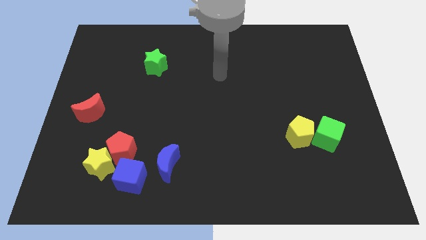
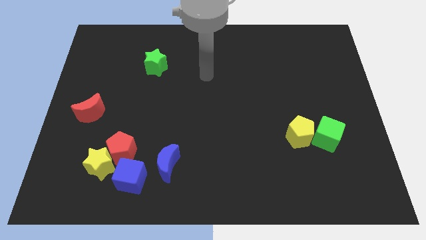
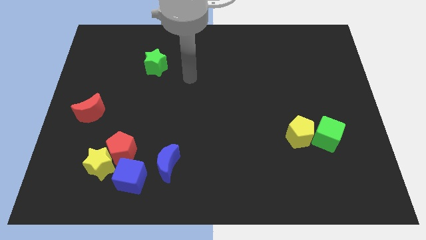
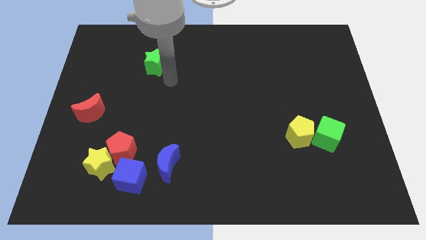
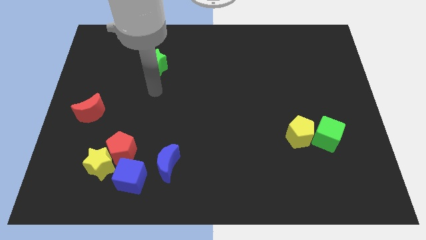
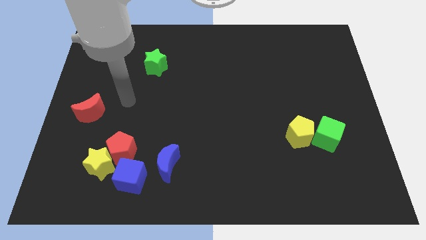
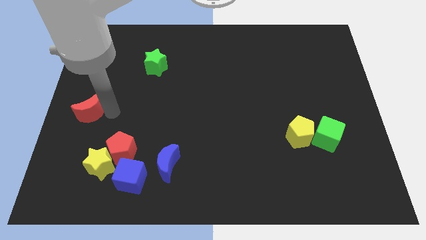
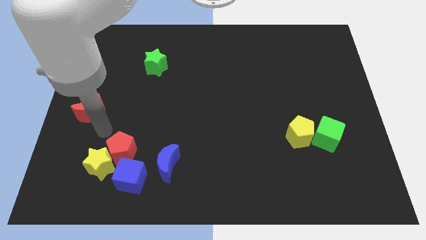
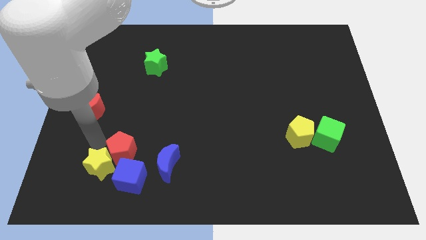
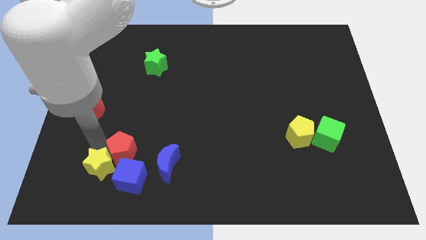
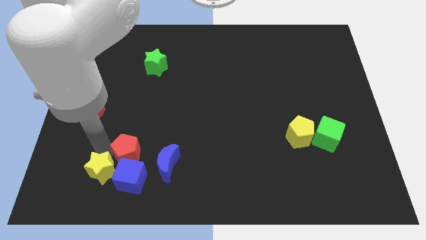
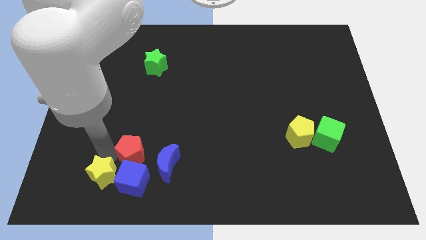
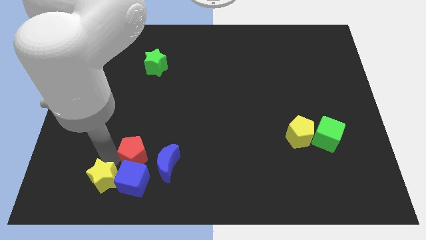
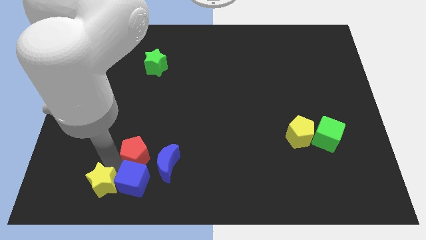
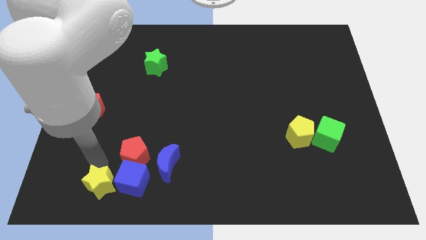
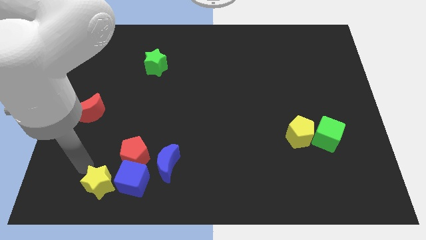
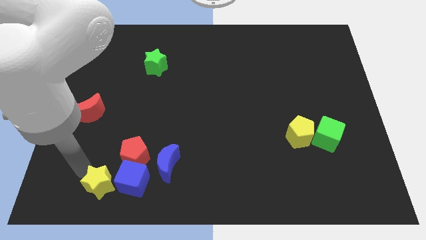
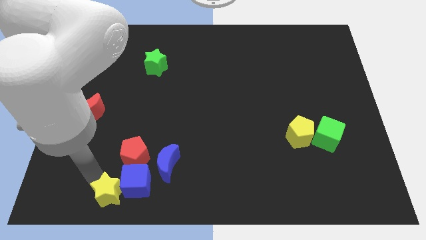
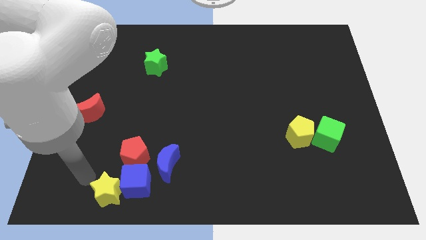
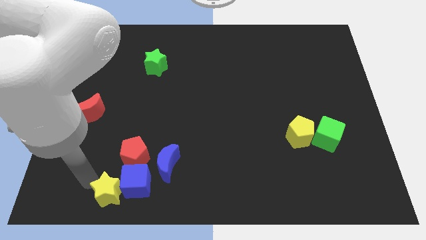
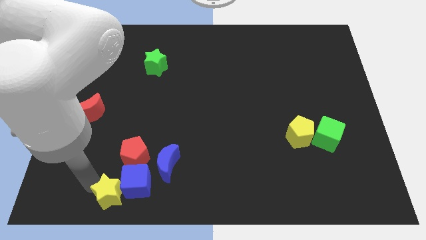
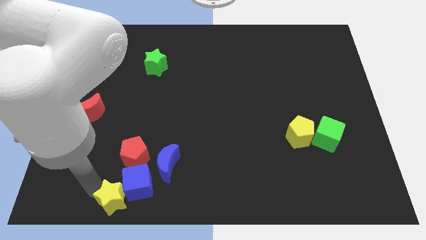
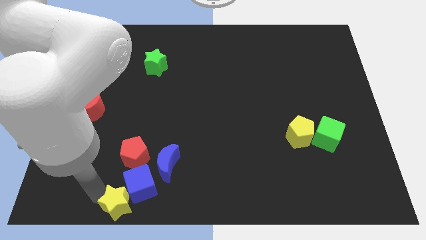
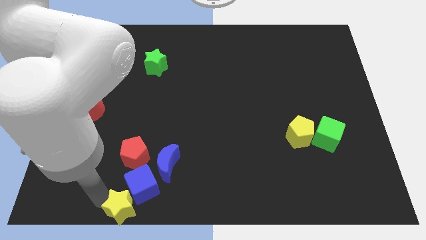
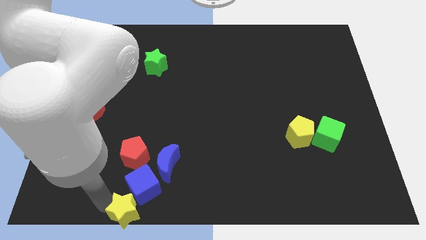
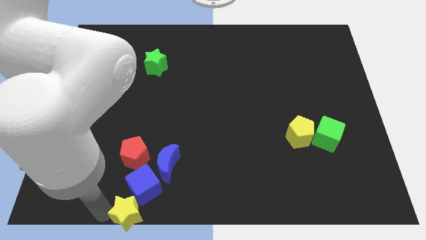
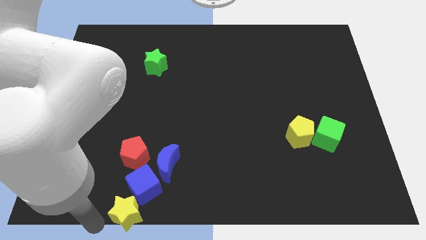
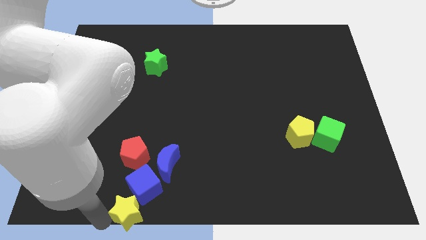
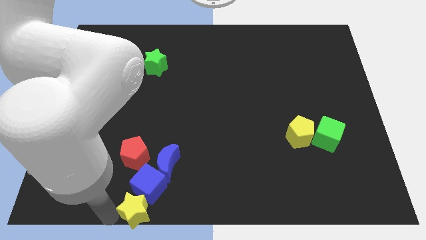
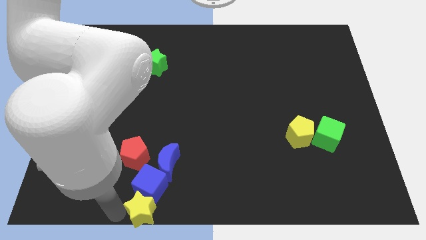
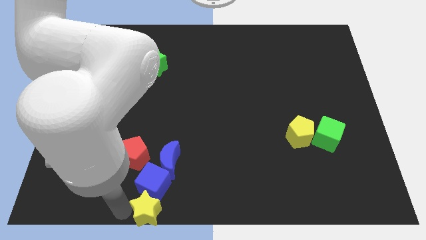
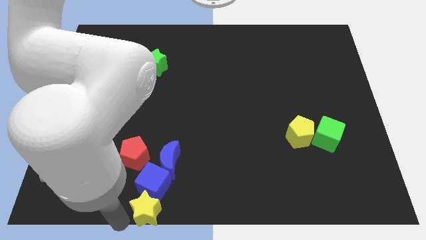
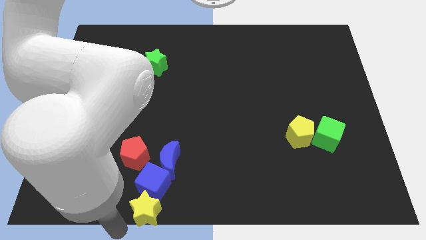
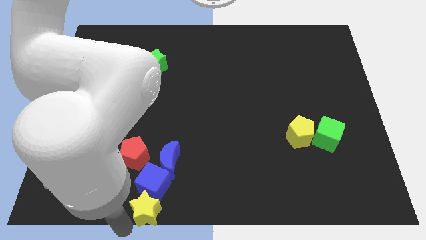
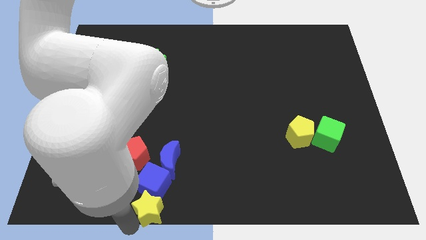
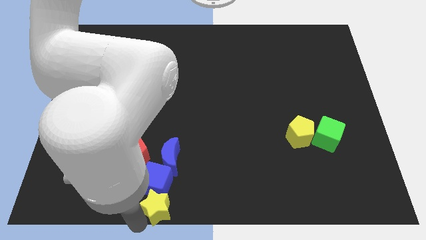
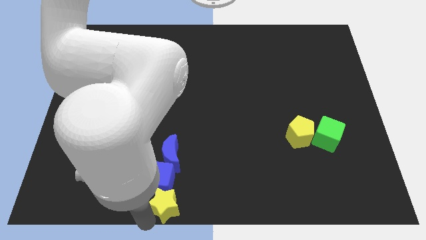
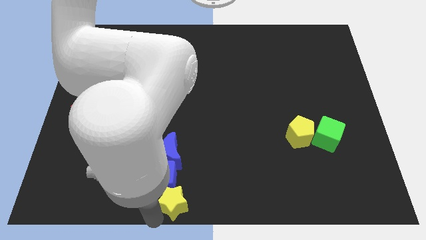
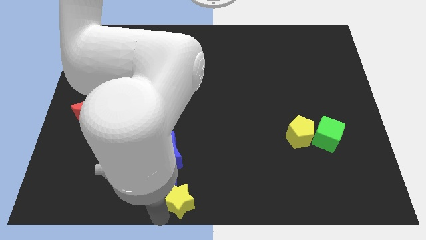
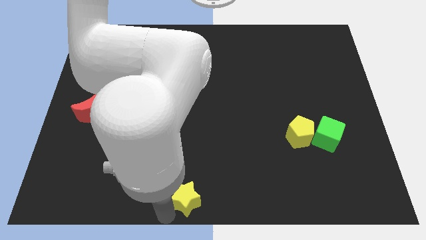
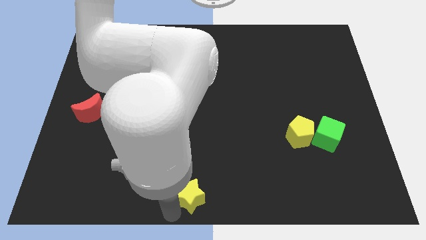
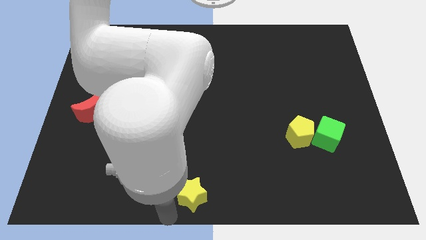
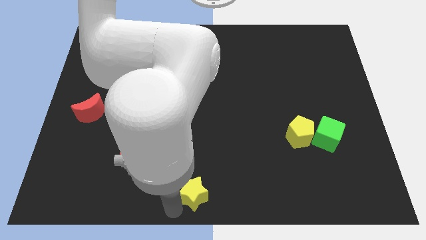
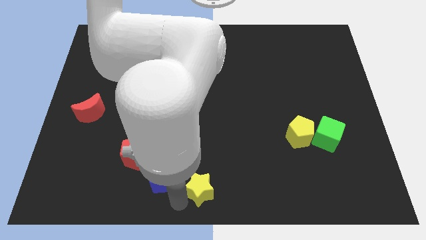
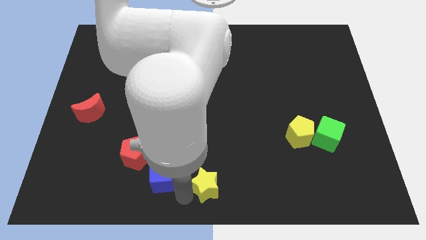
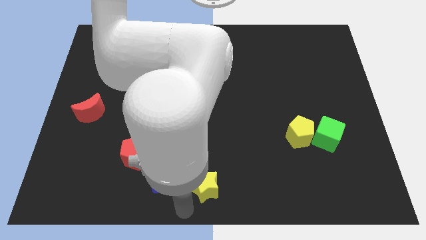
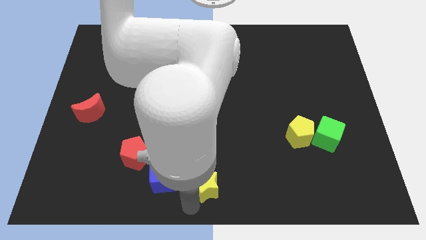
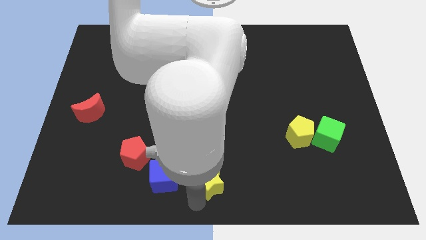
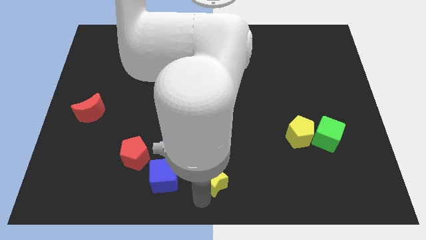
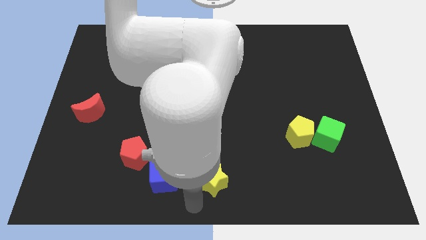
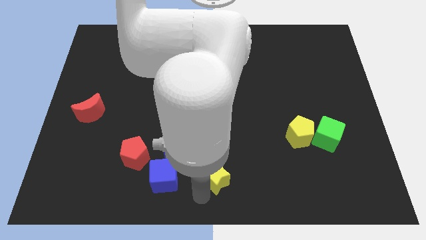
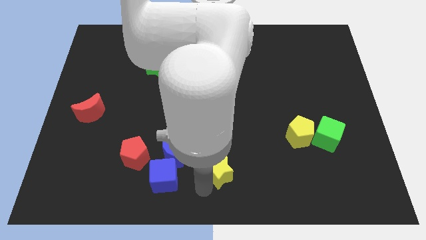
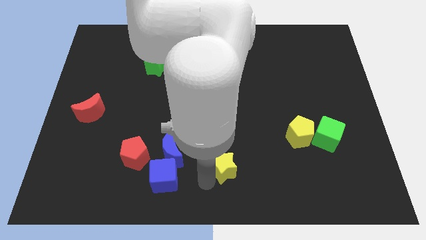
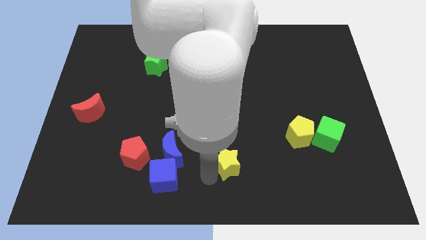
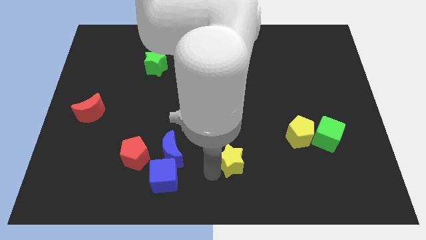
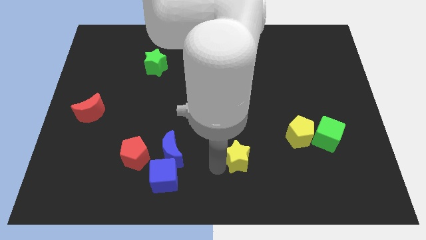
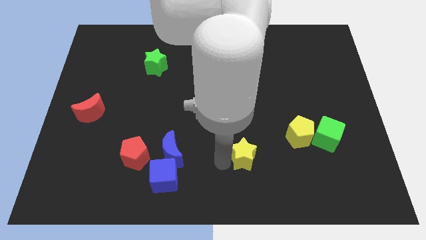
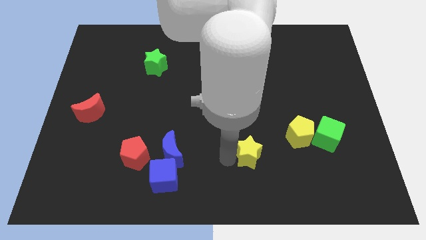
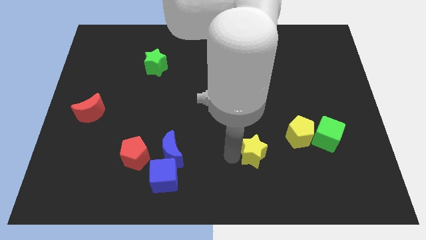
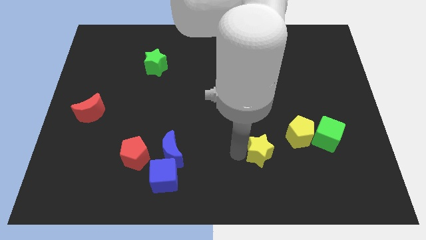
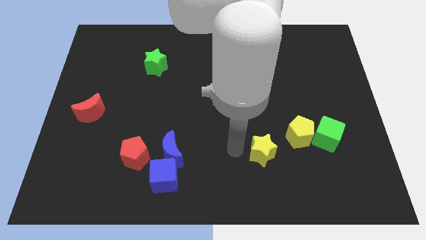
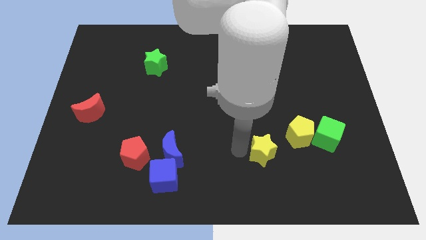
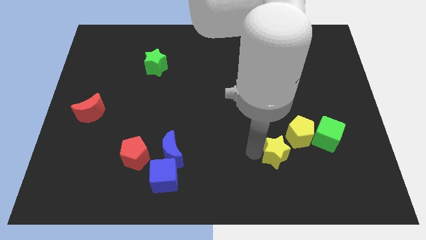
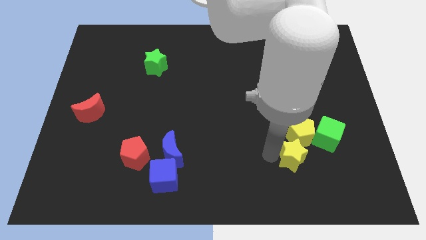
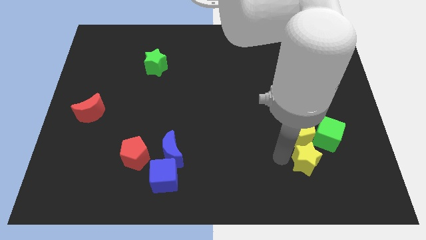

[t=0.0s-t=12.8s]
push the yellow star to the bottom right side of the yellow pentagon

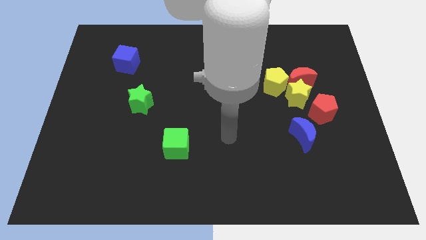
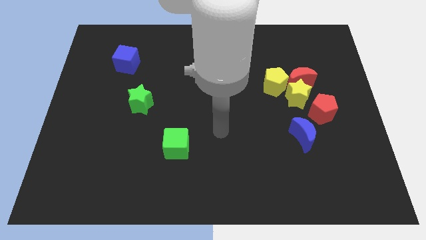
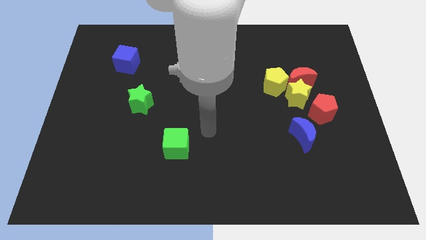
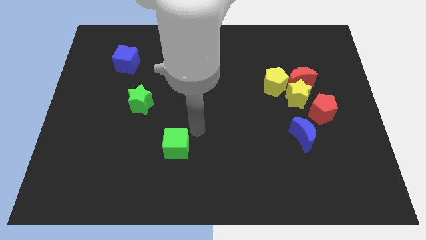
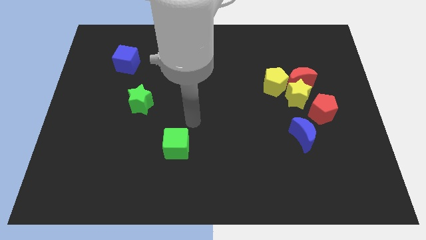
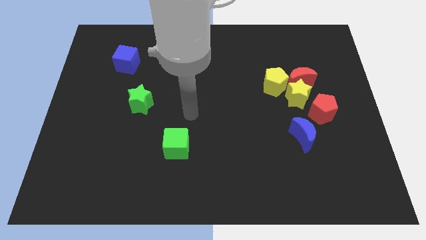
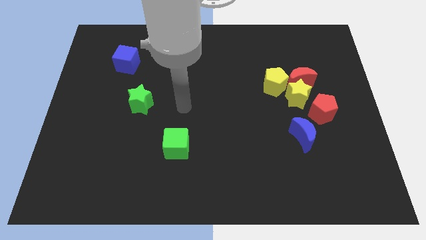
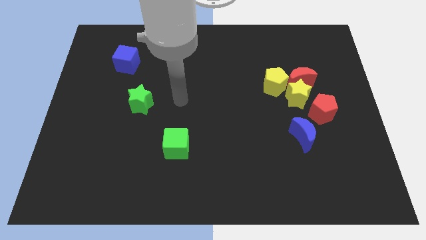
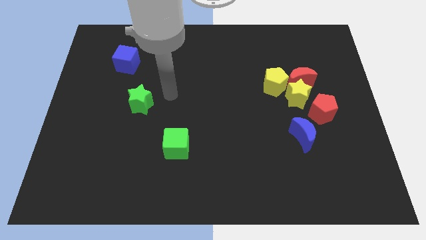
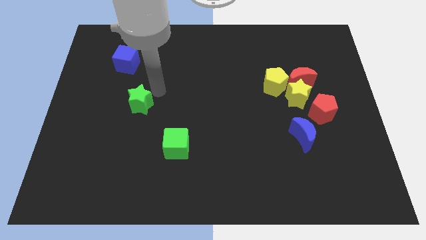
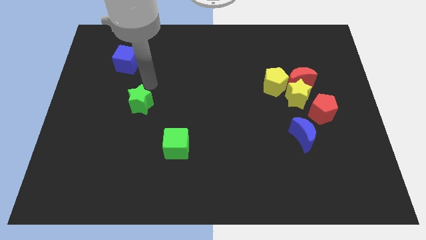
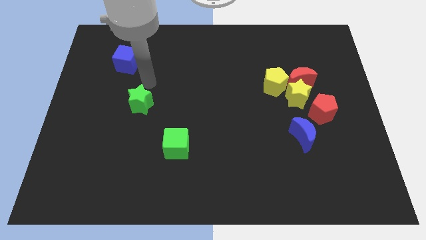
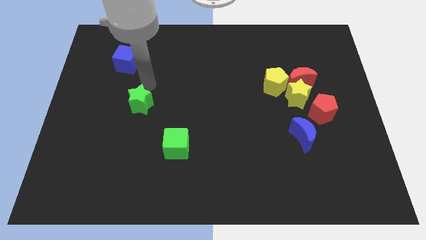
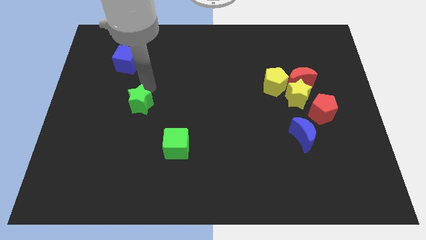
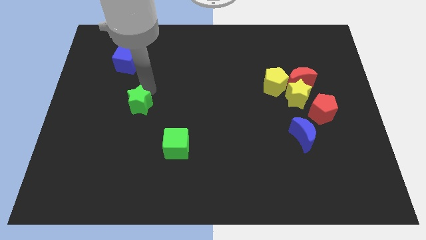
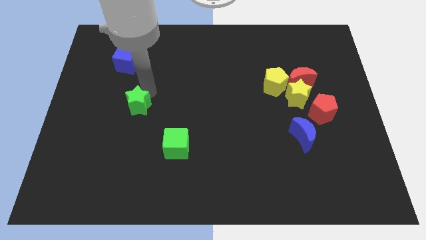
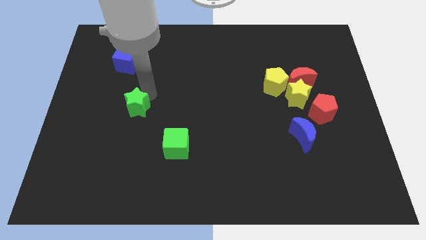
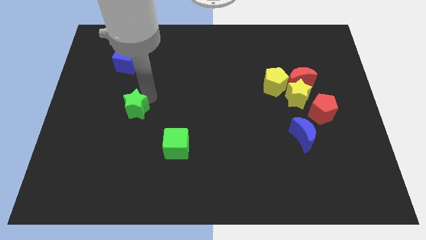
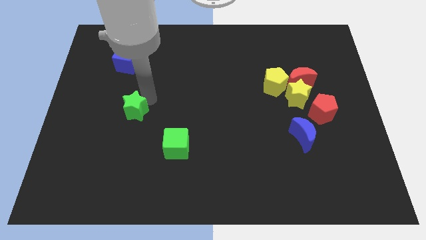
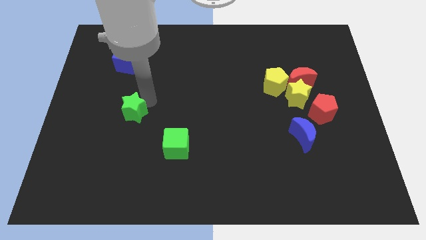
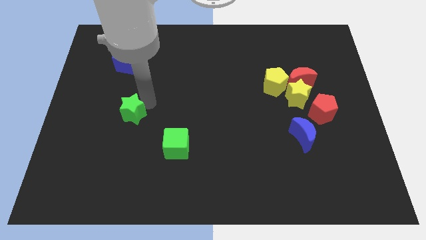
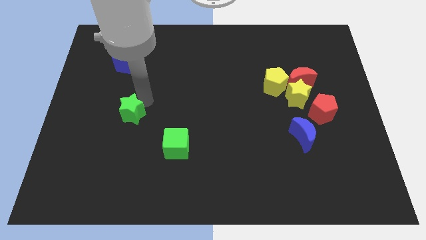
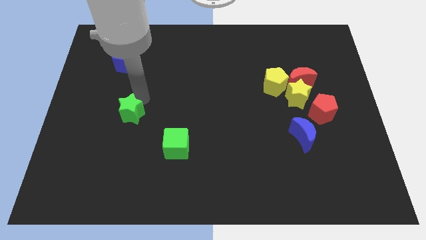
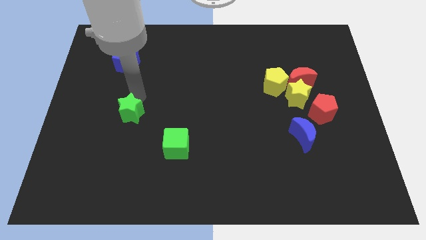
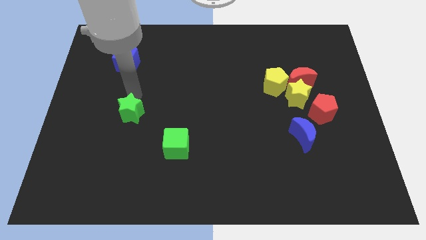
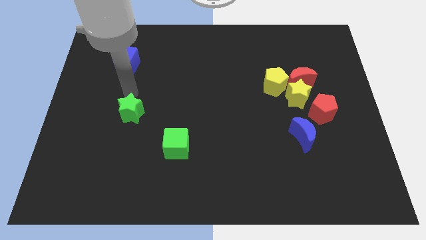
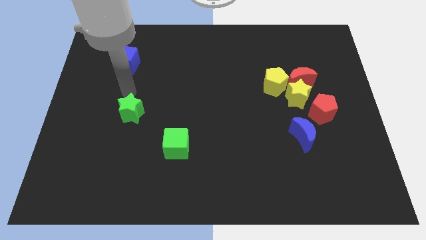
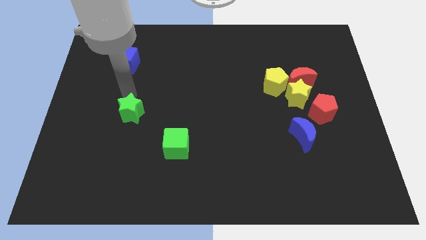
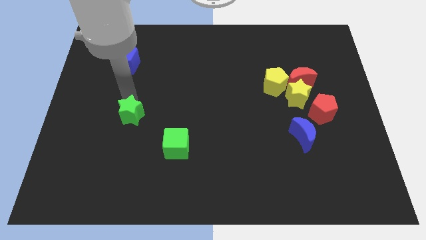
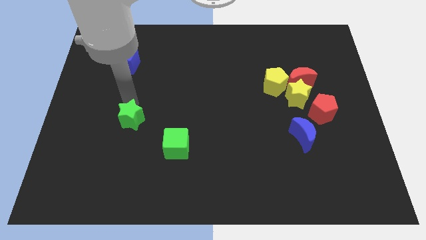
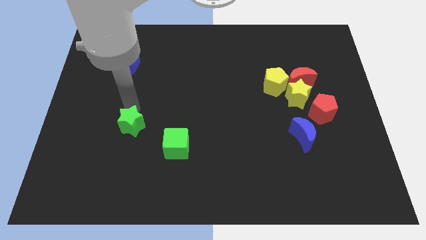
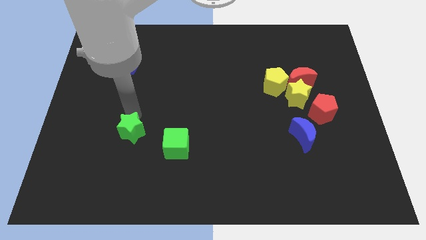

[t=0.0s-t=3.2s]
move the green star to the left of the green cube
